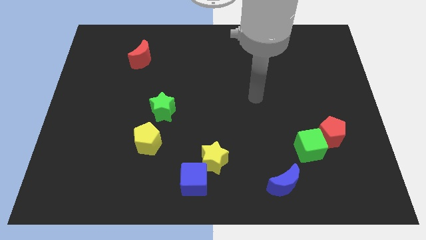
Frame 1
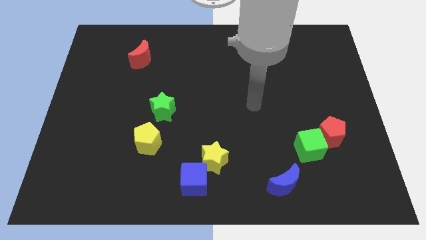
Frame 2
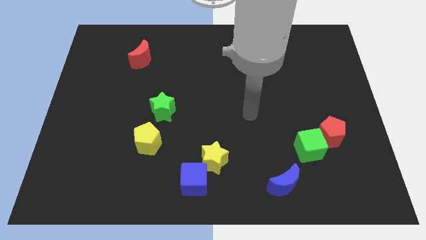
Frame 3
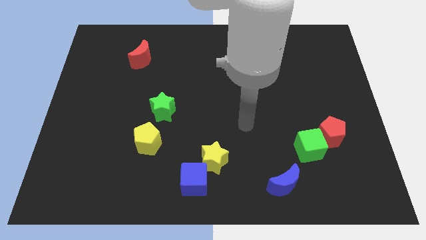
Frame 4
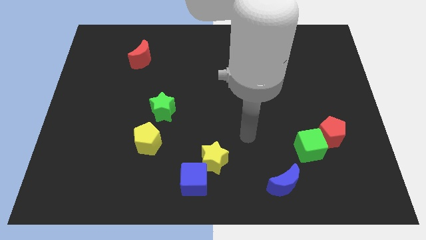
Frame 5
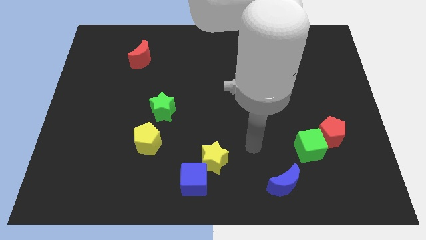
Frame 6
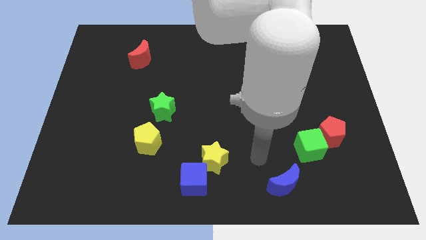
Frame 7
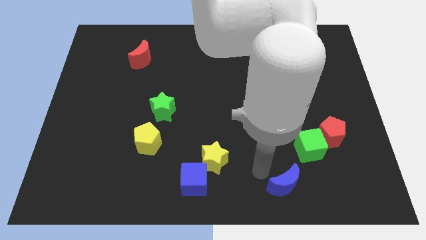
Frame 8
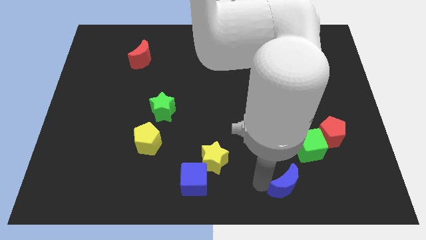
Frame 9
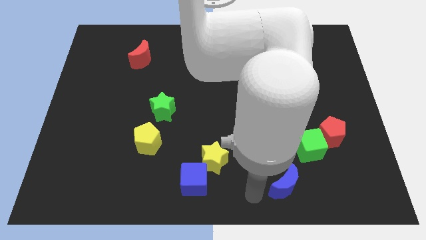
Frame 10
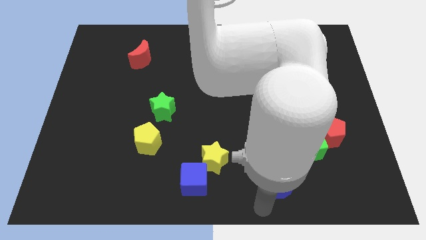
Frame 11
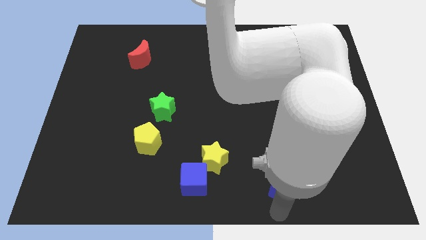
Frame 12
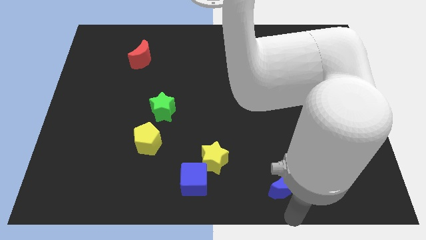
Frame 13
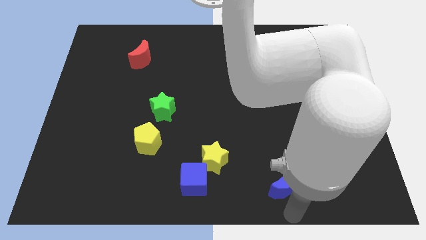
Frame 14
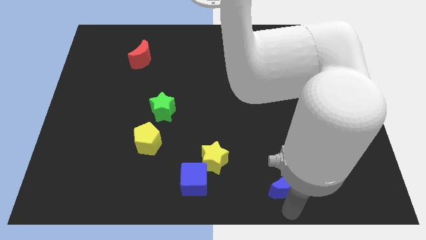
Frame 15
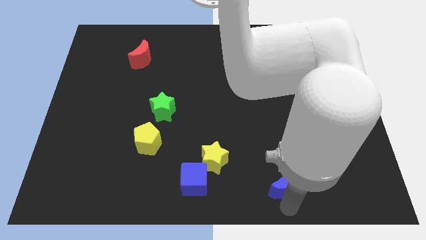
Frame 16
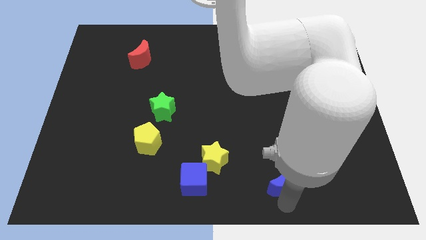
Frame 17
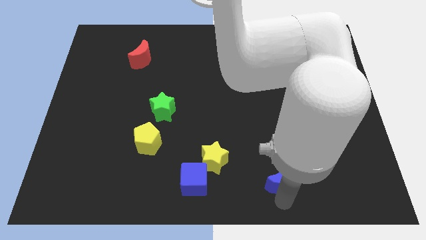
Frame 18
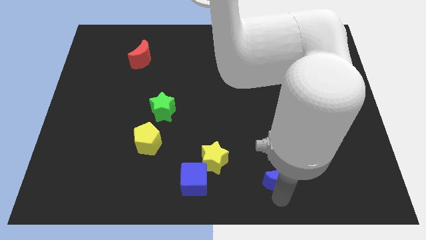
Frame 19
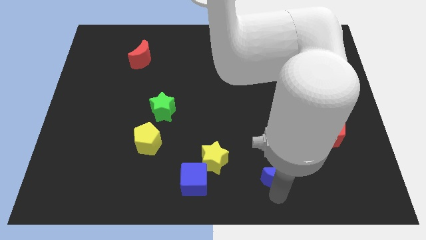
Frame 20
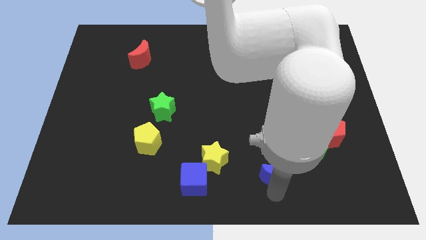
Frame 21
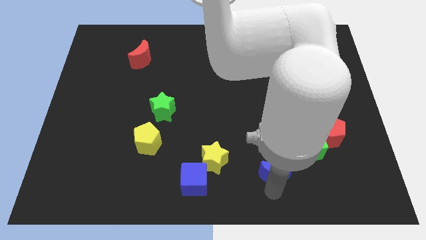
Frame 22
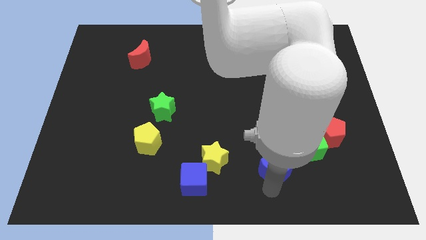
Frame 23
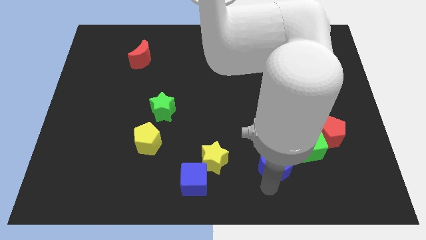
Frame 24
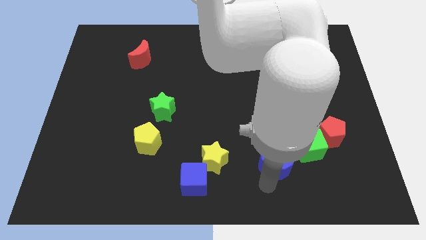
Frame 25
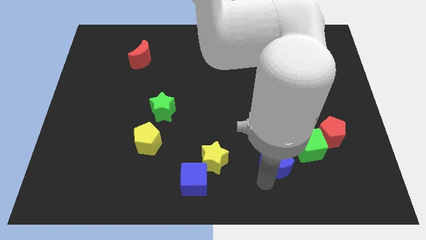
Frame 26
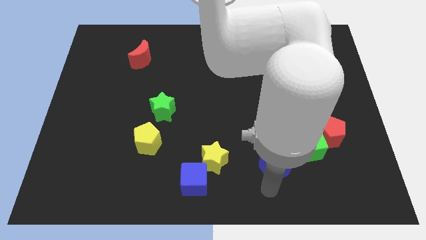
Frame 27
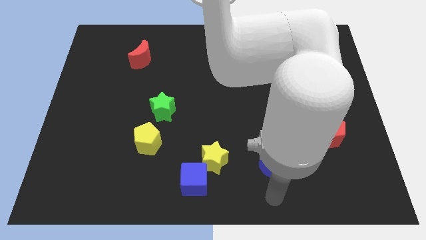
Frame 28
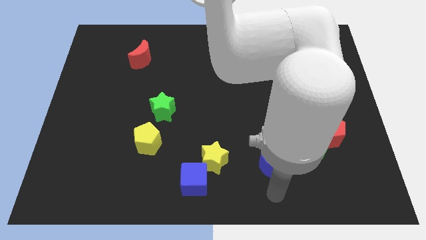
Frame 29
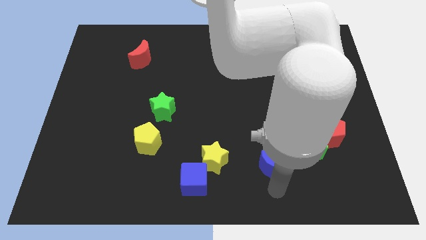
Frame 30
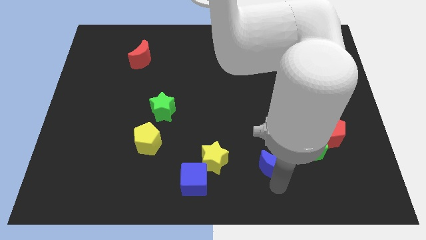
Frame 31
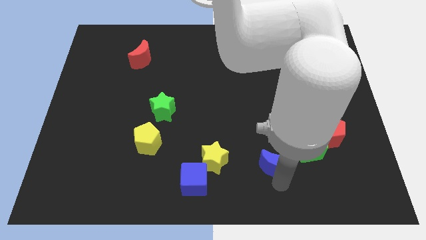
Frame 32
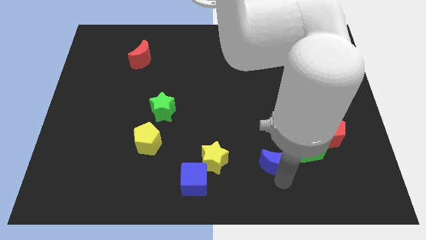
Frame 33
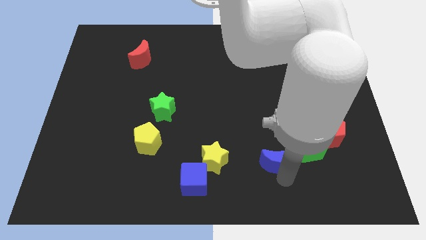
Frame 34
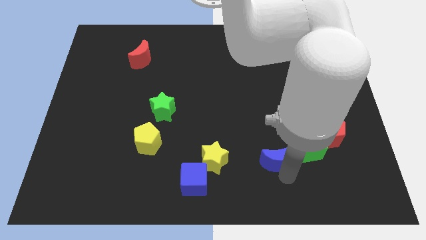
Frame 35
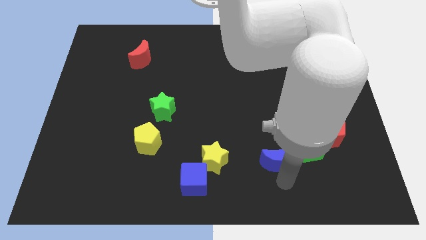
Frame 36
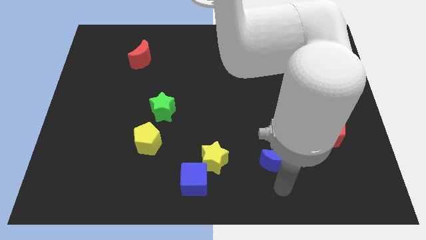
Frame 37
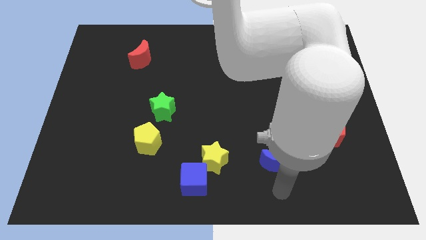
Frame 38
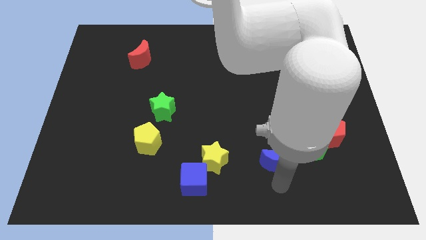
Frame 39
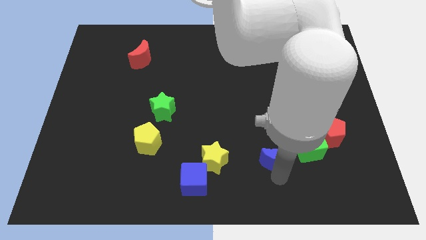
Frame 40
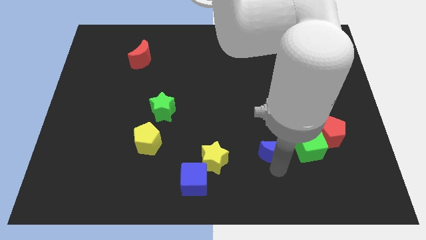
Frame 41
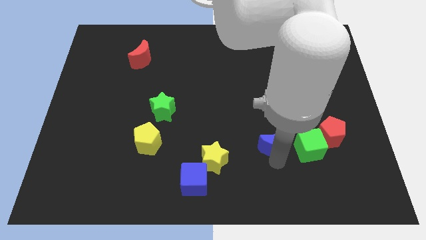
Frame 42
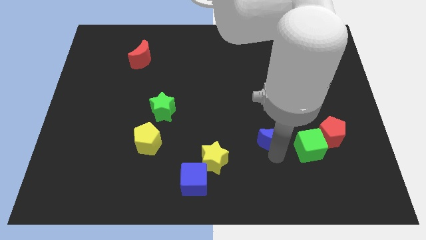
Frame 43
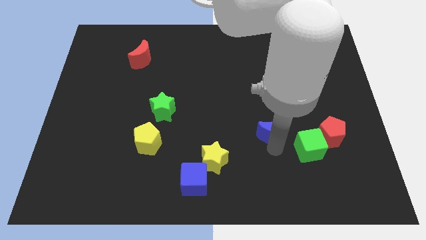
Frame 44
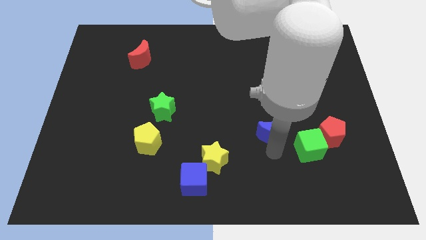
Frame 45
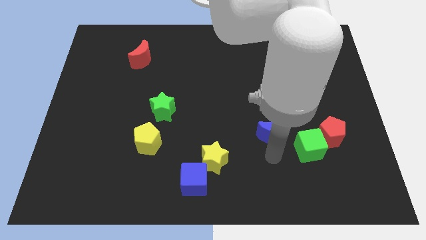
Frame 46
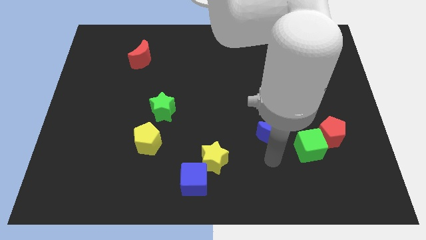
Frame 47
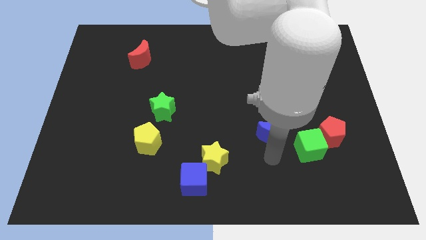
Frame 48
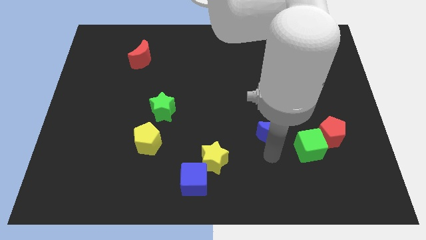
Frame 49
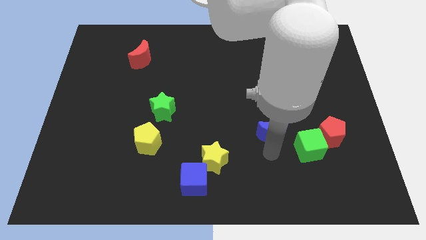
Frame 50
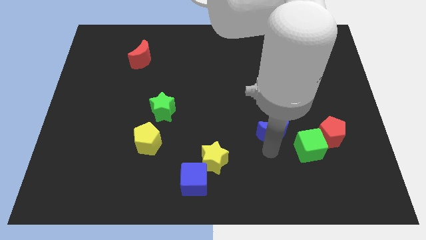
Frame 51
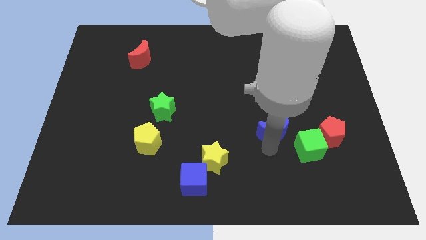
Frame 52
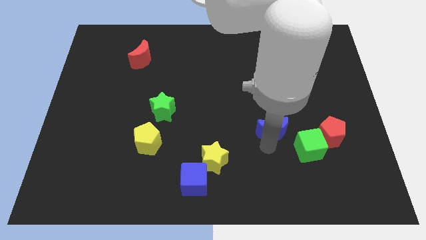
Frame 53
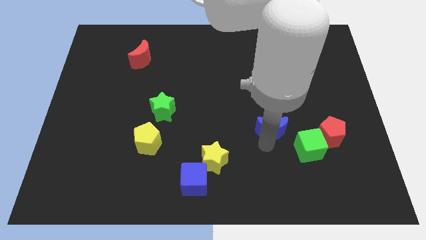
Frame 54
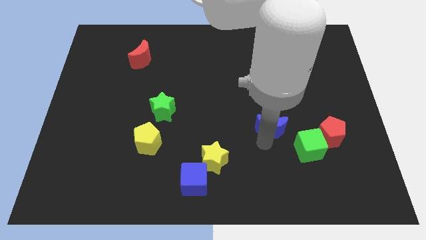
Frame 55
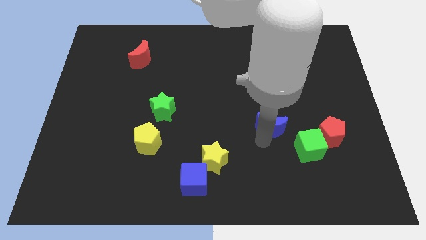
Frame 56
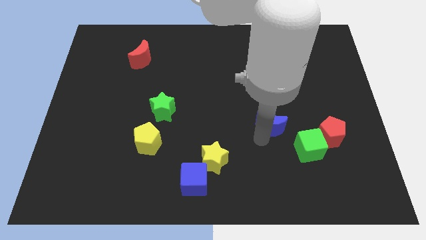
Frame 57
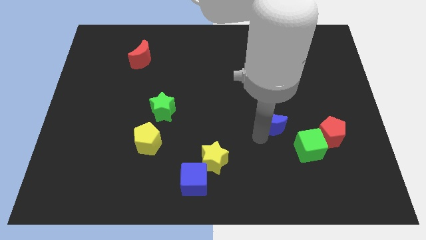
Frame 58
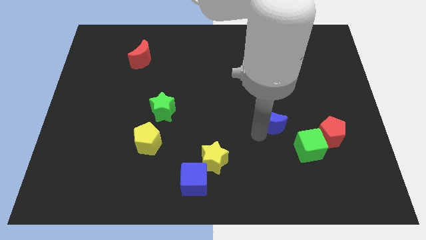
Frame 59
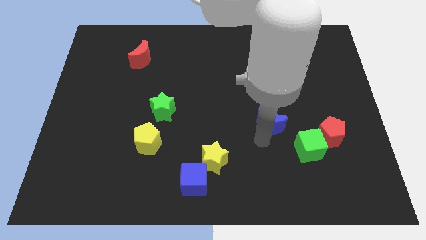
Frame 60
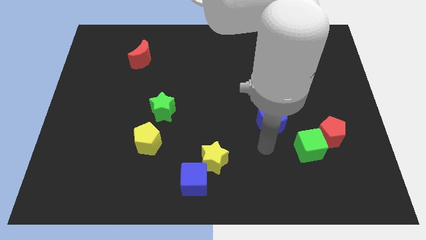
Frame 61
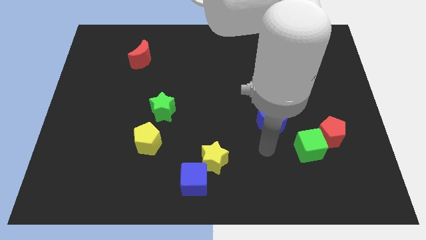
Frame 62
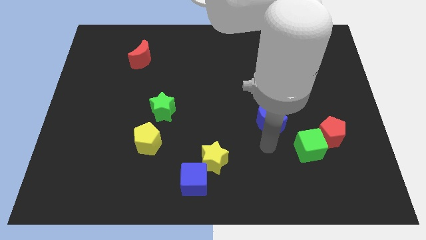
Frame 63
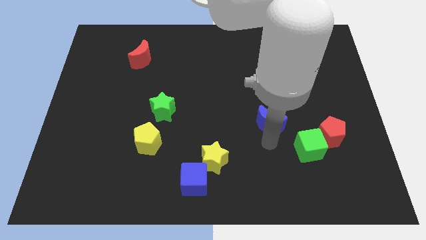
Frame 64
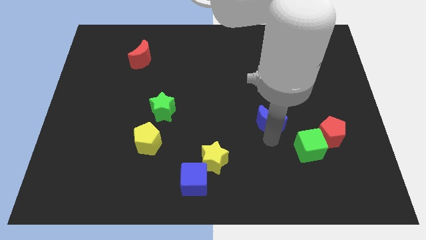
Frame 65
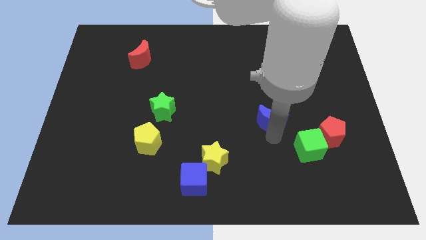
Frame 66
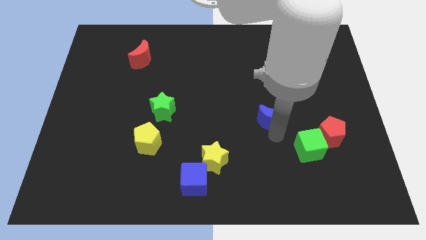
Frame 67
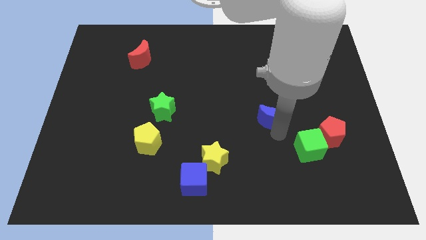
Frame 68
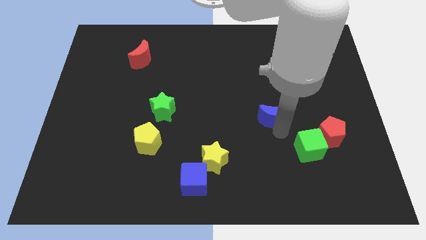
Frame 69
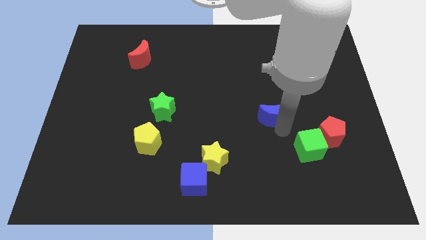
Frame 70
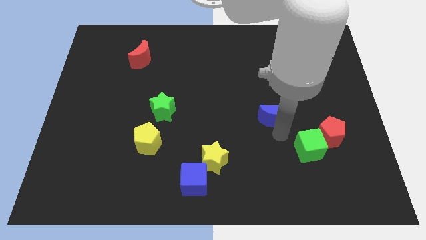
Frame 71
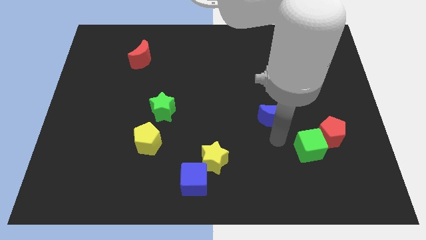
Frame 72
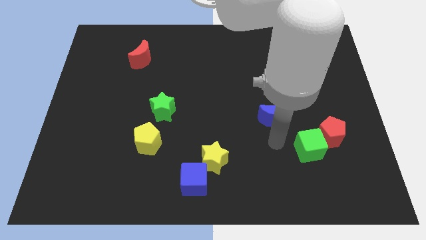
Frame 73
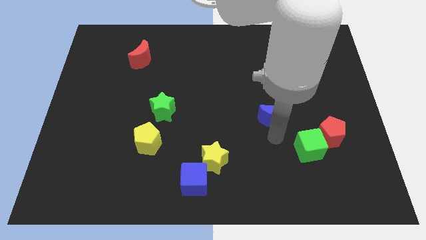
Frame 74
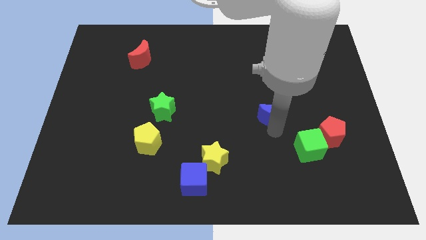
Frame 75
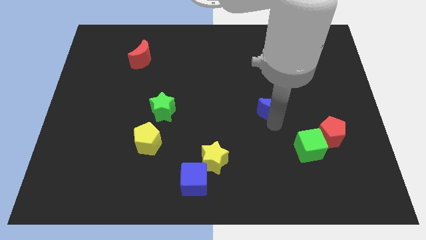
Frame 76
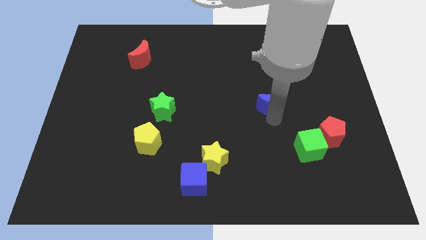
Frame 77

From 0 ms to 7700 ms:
move the blue moon up
